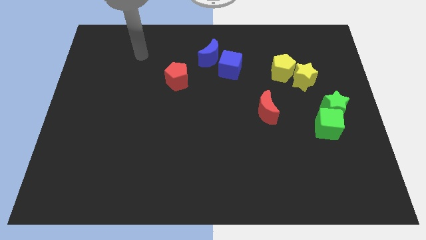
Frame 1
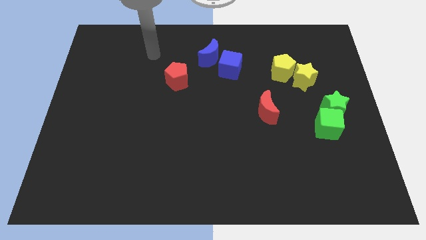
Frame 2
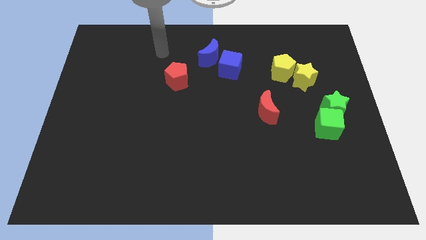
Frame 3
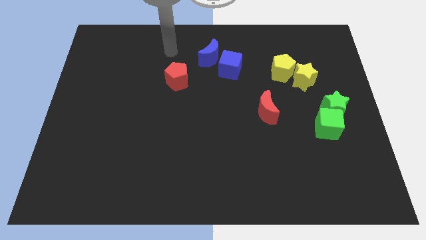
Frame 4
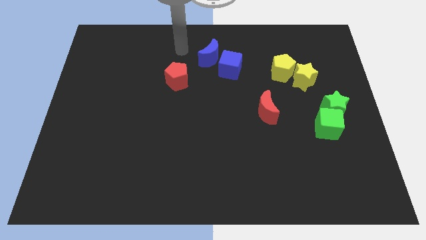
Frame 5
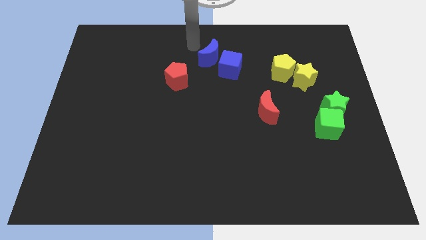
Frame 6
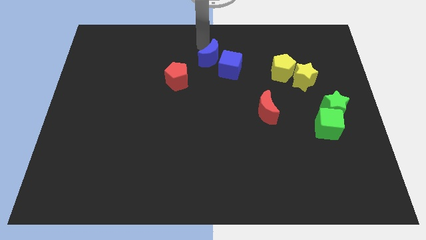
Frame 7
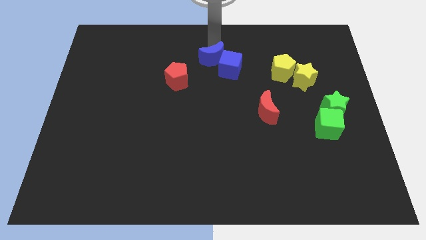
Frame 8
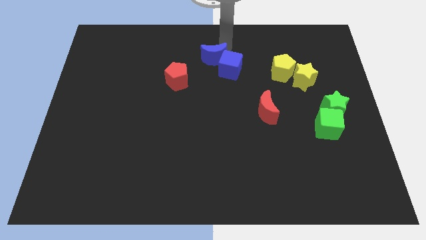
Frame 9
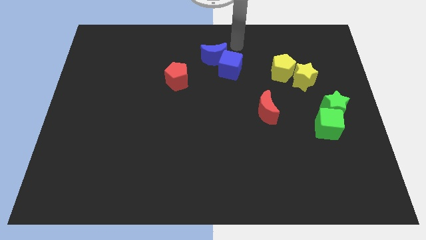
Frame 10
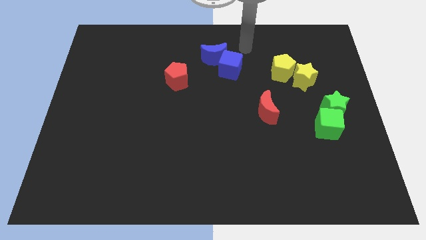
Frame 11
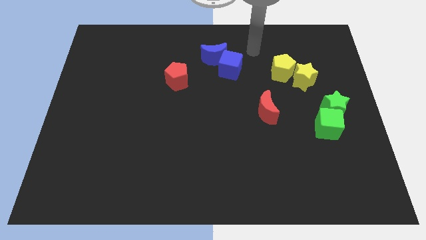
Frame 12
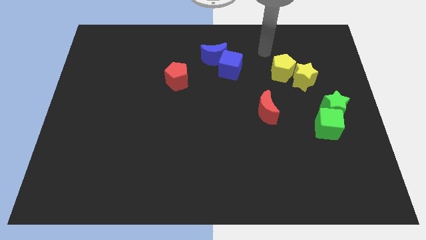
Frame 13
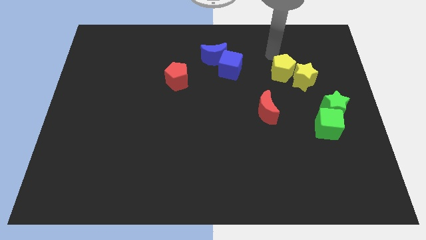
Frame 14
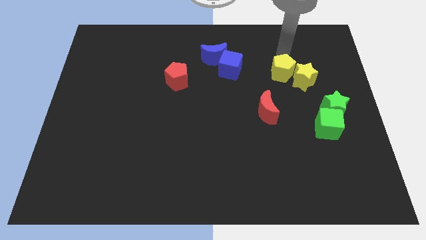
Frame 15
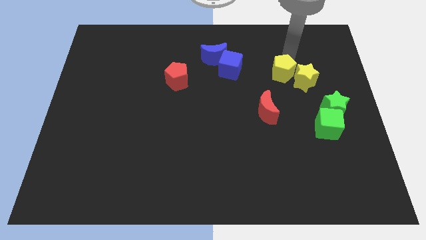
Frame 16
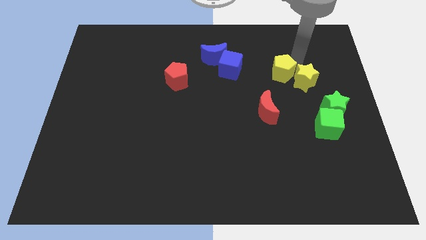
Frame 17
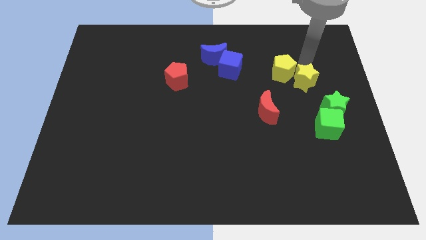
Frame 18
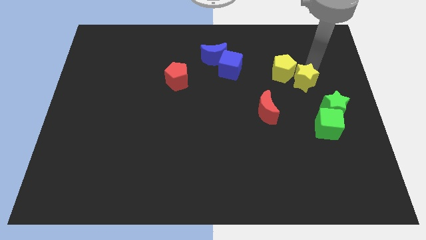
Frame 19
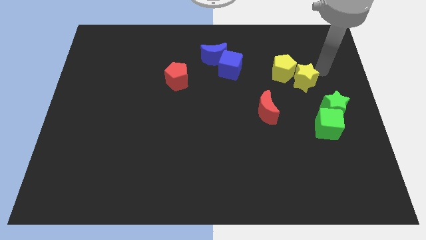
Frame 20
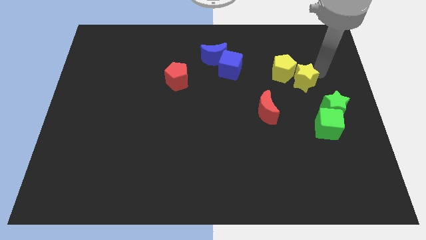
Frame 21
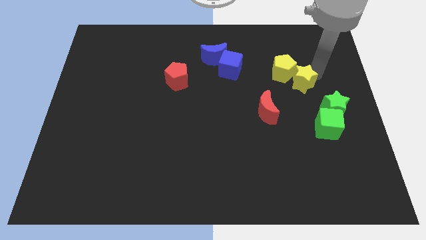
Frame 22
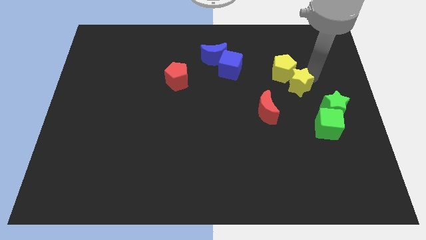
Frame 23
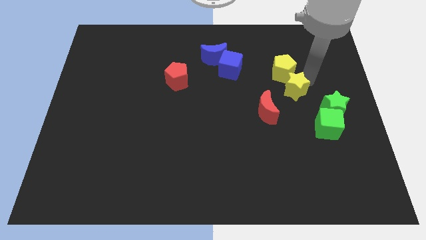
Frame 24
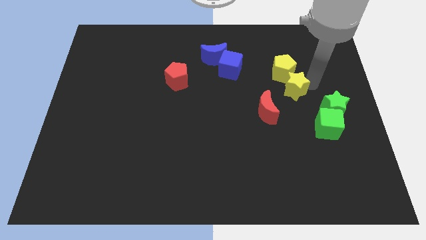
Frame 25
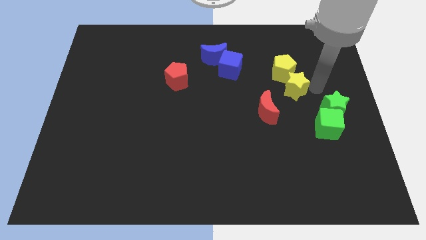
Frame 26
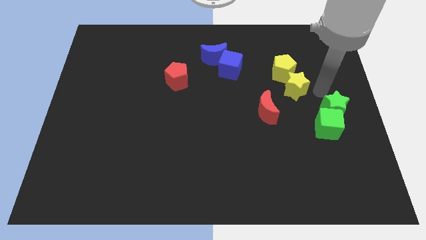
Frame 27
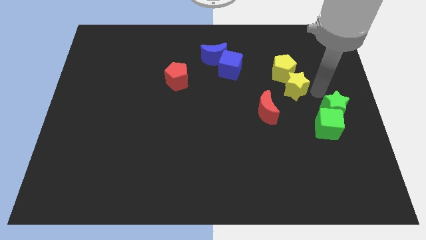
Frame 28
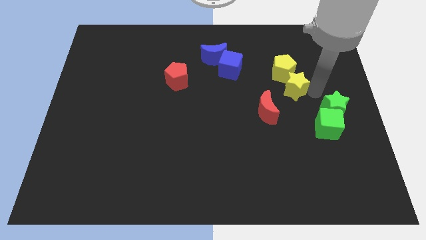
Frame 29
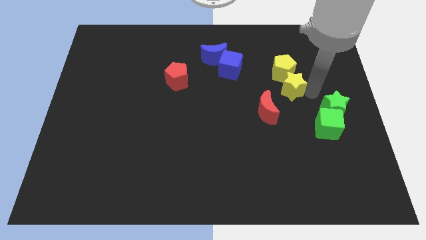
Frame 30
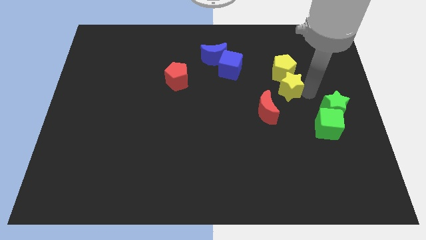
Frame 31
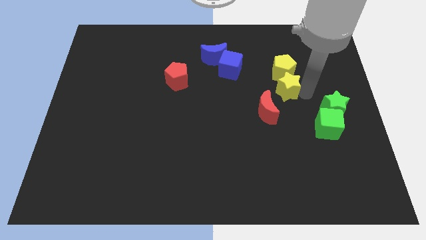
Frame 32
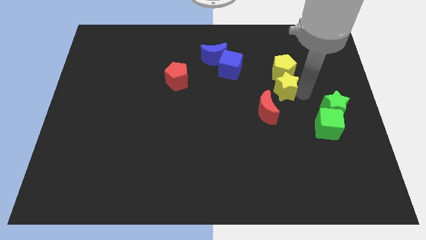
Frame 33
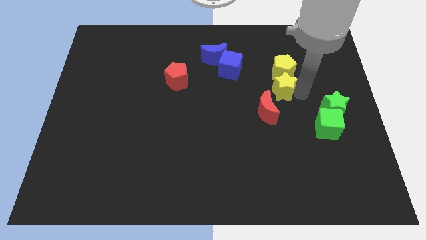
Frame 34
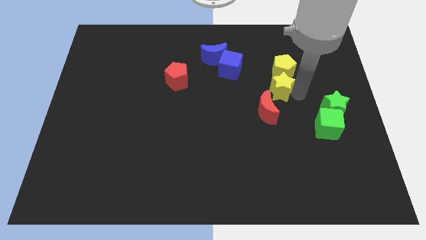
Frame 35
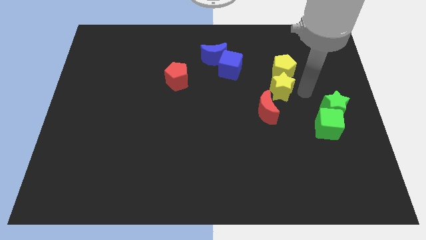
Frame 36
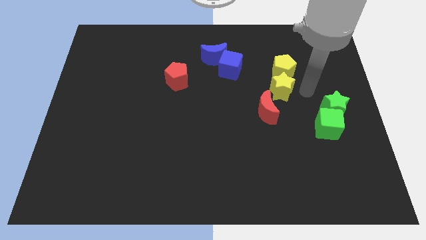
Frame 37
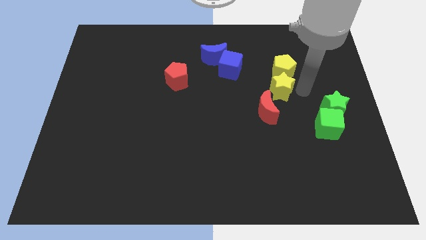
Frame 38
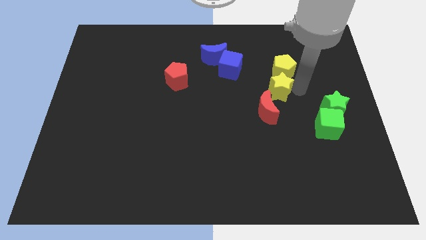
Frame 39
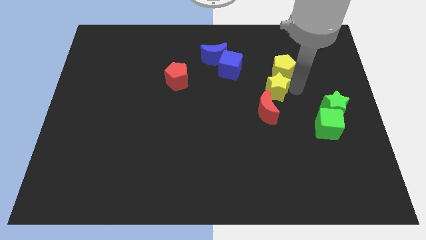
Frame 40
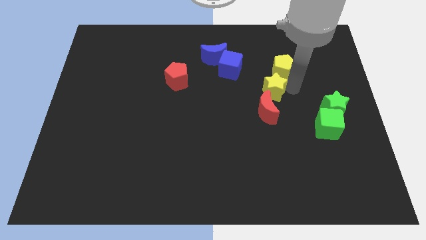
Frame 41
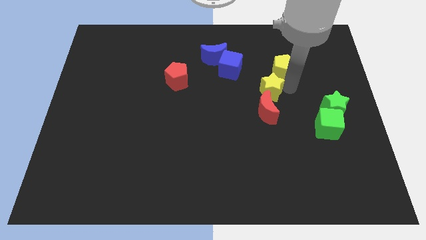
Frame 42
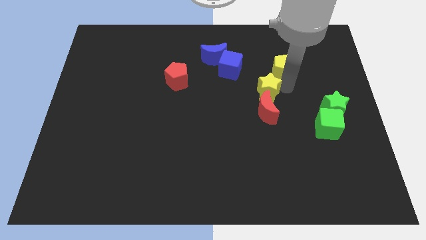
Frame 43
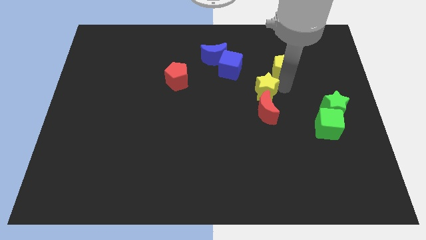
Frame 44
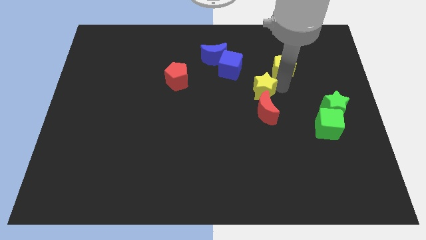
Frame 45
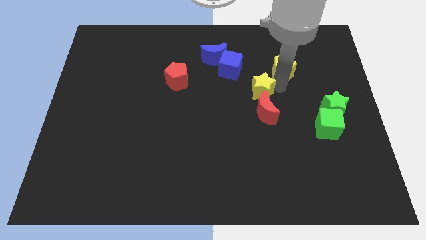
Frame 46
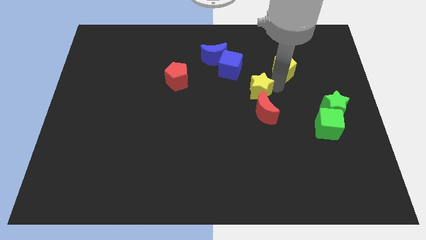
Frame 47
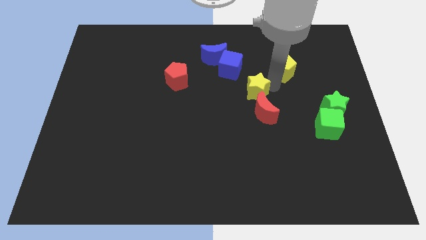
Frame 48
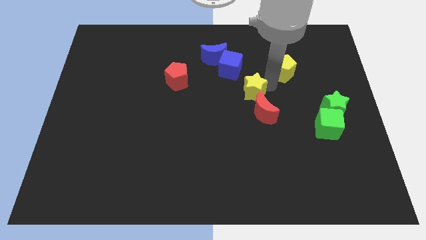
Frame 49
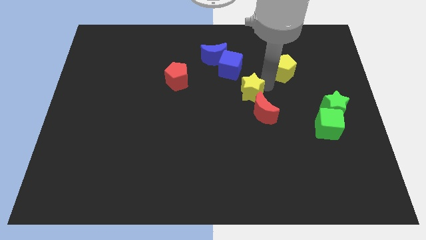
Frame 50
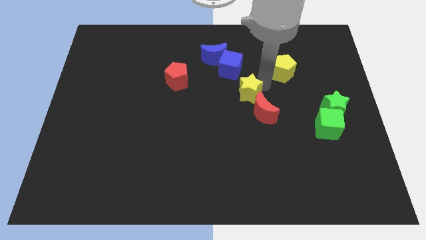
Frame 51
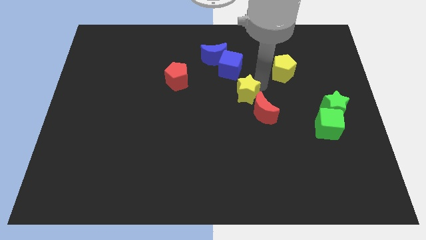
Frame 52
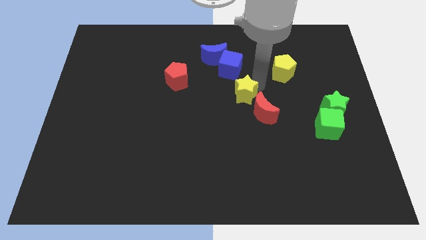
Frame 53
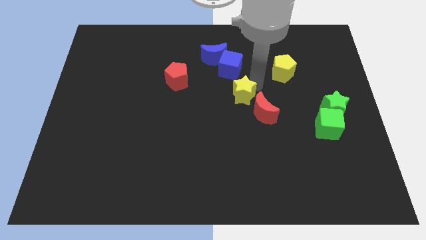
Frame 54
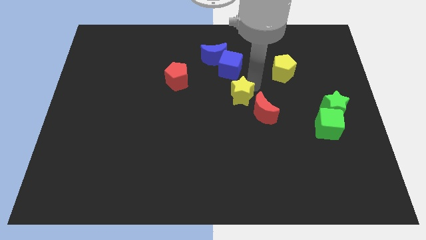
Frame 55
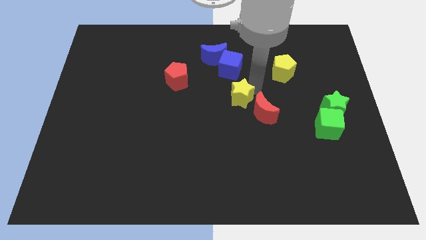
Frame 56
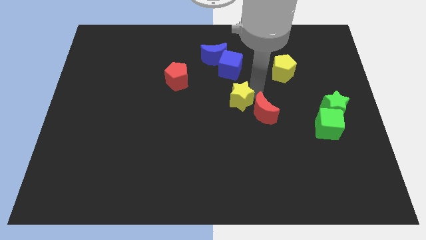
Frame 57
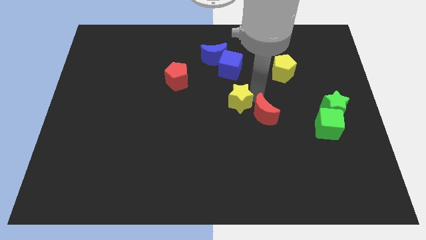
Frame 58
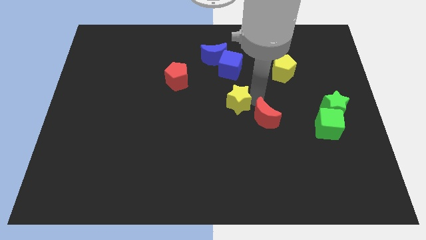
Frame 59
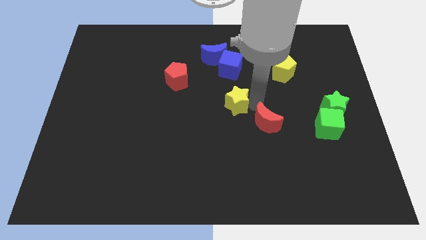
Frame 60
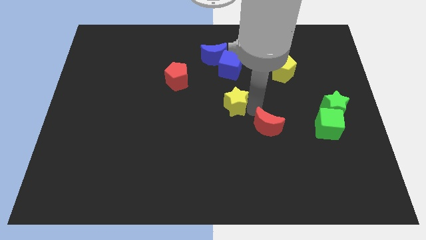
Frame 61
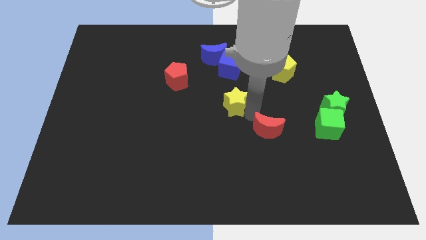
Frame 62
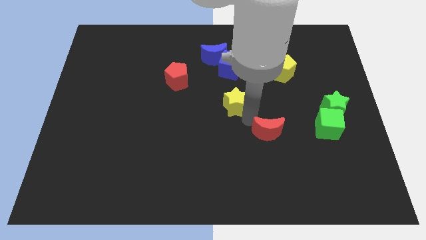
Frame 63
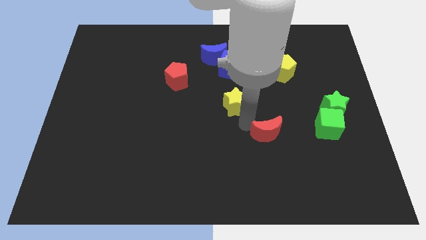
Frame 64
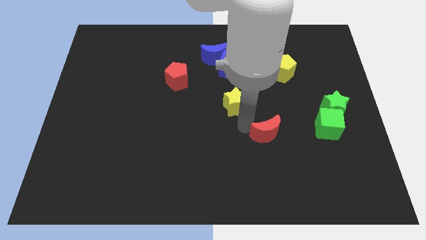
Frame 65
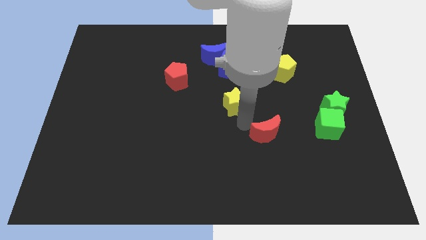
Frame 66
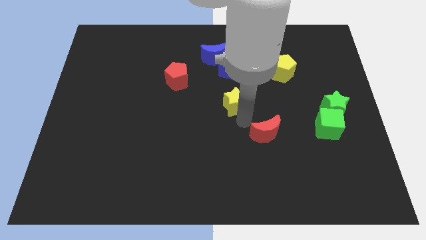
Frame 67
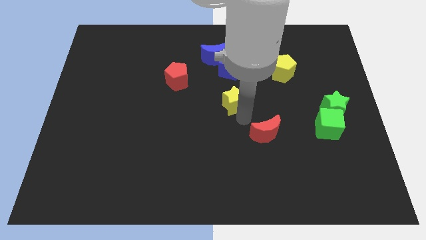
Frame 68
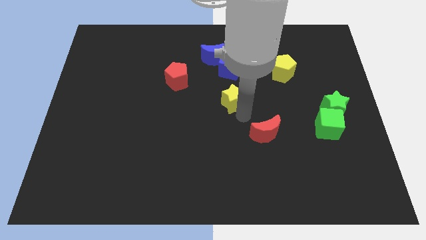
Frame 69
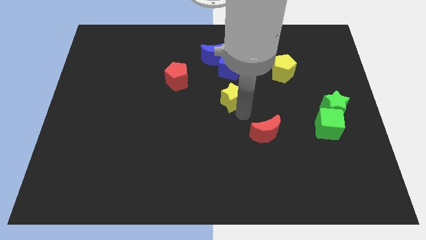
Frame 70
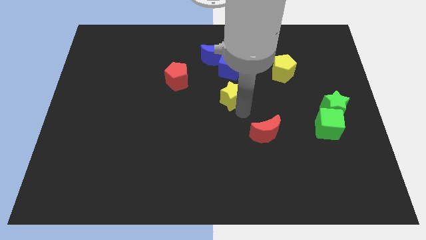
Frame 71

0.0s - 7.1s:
push the yellow star below the blue moon
